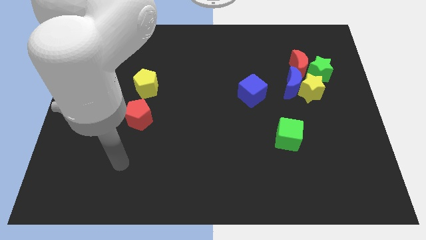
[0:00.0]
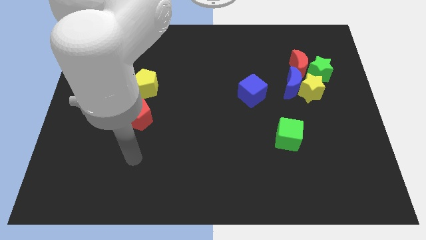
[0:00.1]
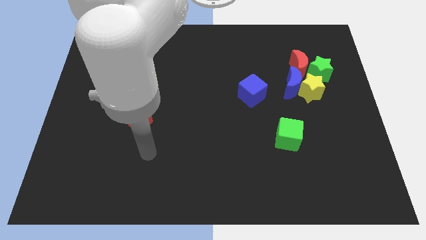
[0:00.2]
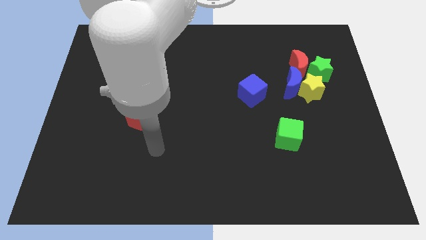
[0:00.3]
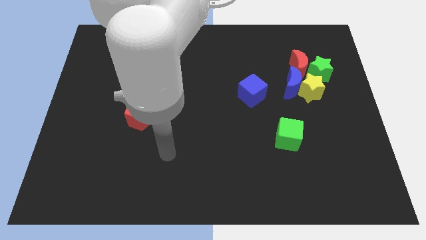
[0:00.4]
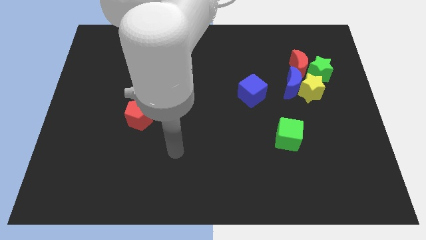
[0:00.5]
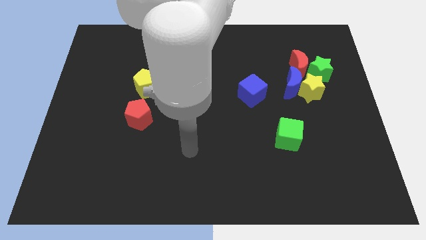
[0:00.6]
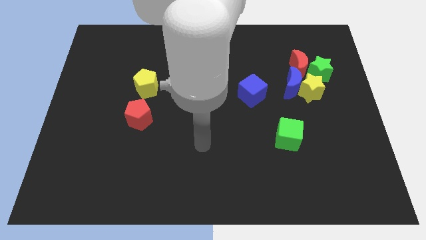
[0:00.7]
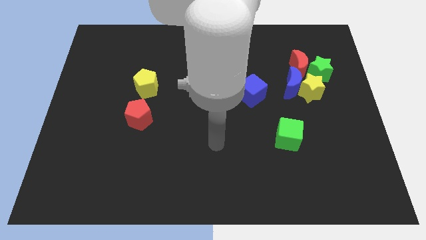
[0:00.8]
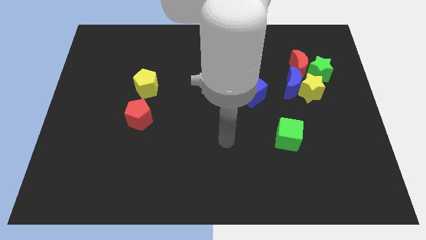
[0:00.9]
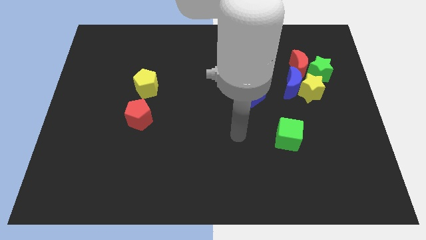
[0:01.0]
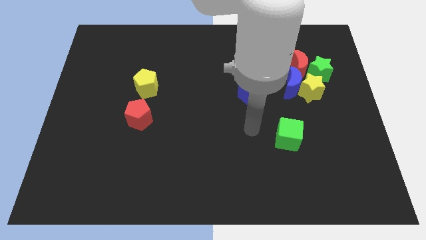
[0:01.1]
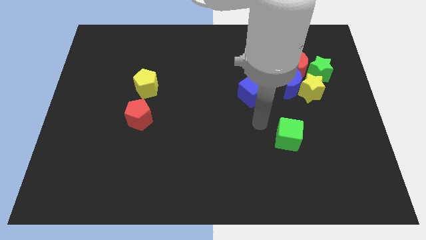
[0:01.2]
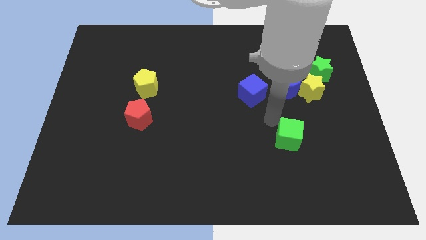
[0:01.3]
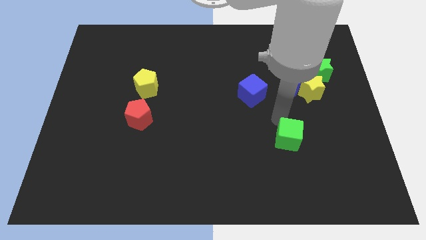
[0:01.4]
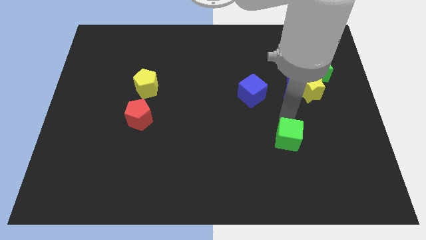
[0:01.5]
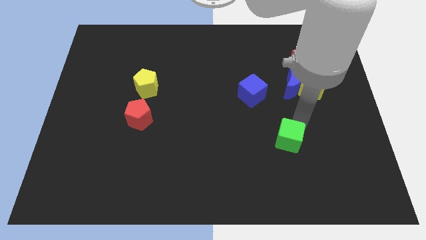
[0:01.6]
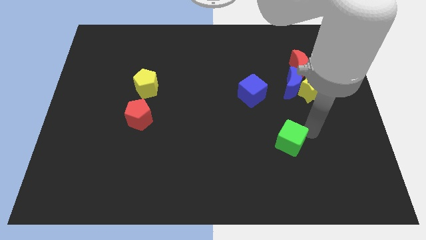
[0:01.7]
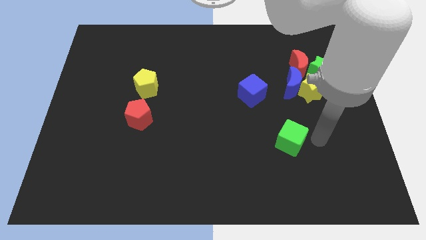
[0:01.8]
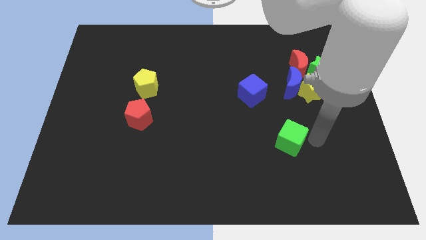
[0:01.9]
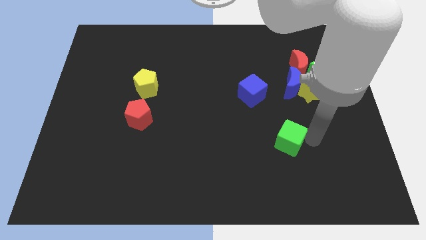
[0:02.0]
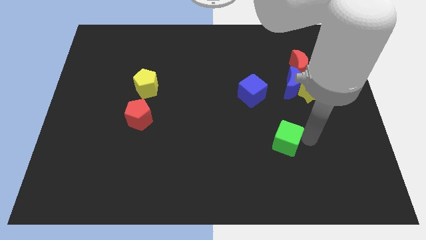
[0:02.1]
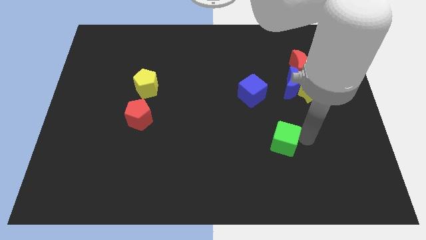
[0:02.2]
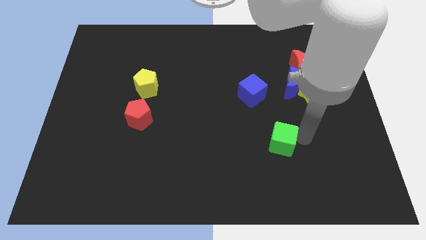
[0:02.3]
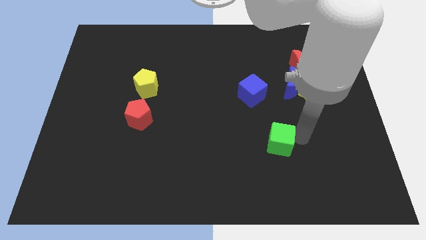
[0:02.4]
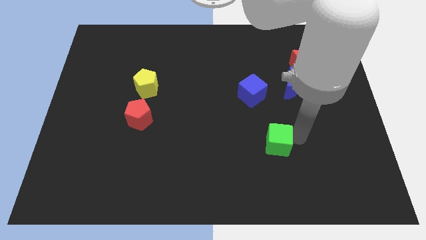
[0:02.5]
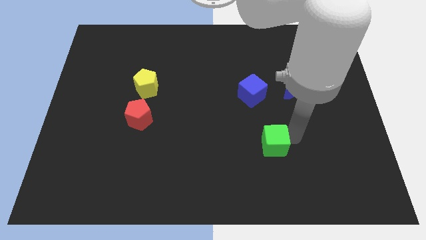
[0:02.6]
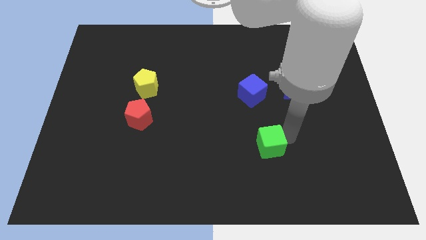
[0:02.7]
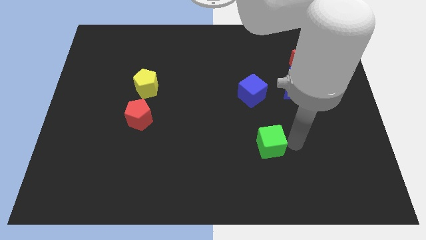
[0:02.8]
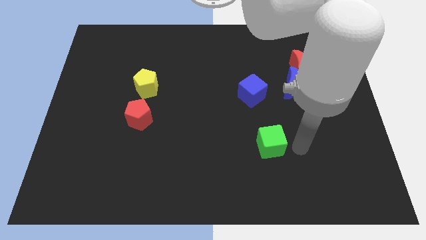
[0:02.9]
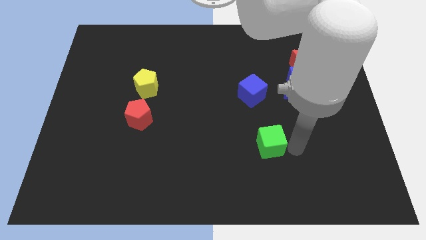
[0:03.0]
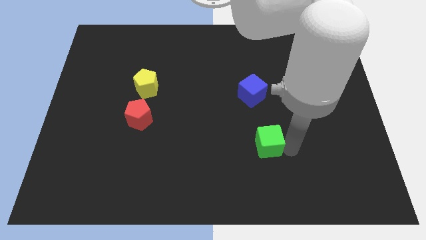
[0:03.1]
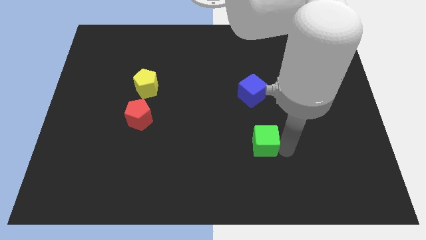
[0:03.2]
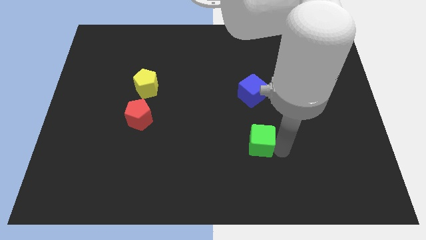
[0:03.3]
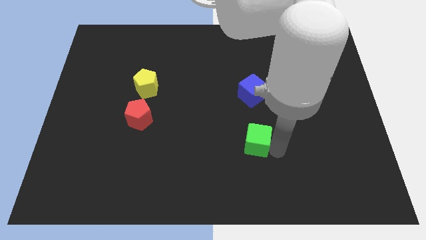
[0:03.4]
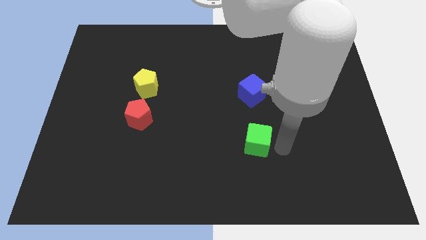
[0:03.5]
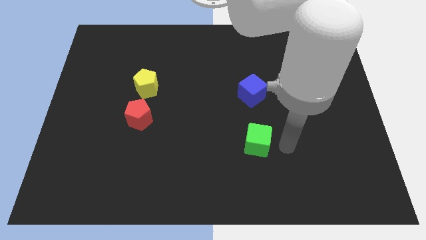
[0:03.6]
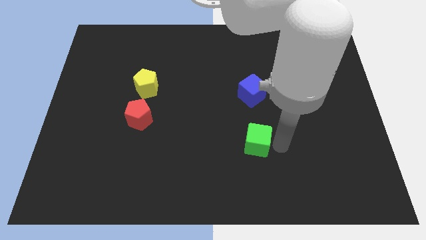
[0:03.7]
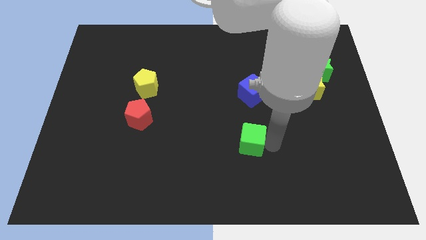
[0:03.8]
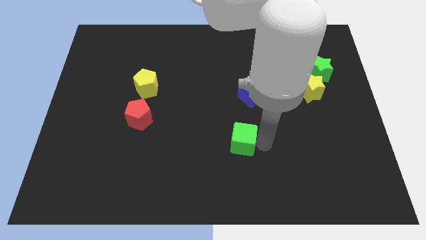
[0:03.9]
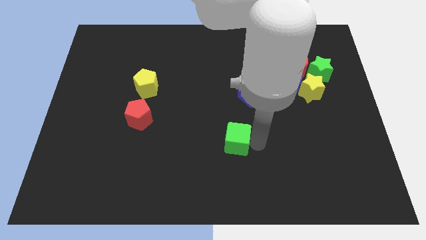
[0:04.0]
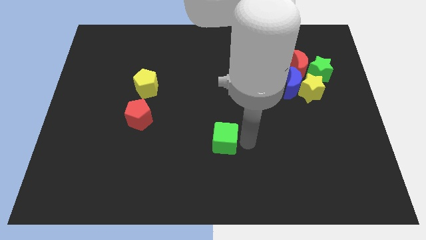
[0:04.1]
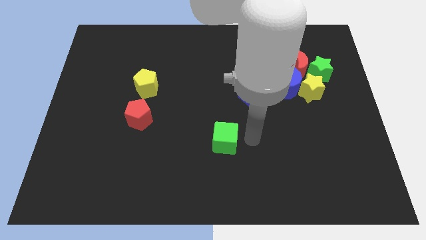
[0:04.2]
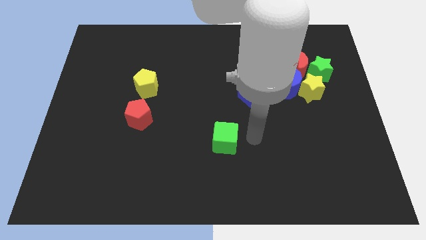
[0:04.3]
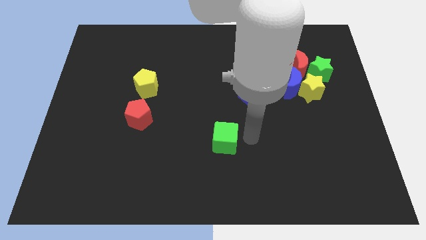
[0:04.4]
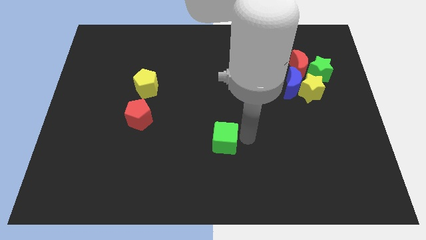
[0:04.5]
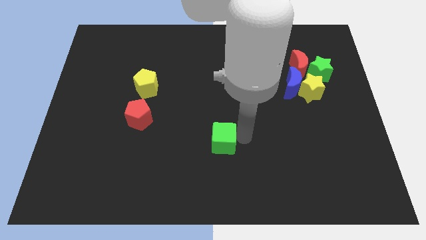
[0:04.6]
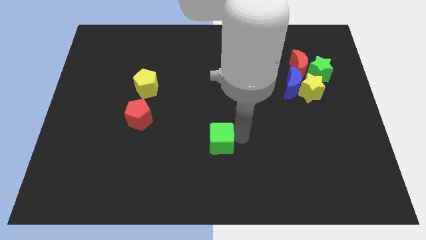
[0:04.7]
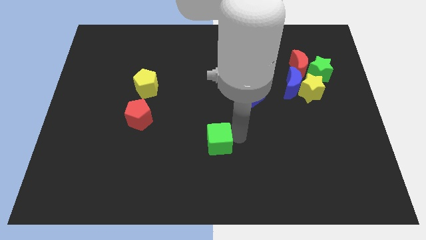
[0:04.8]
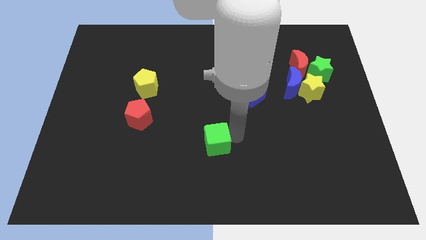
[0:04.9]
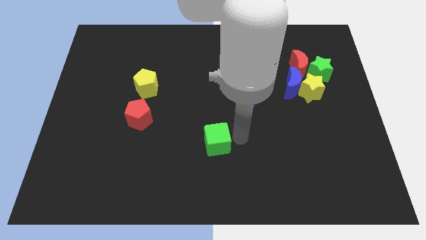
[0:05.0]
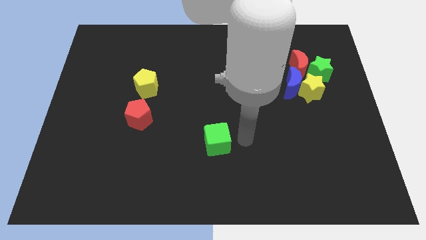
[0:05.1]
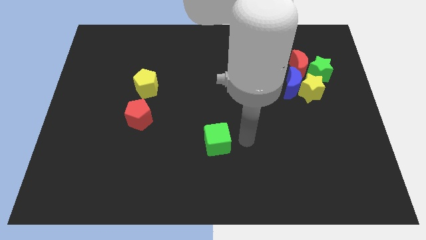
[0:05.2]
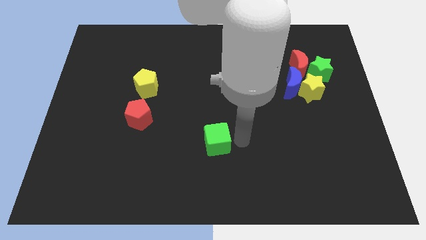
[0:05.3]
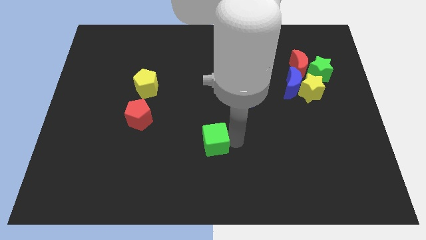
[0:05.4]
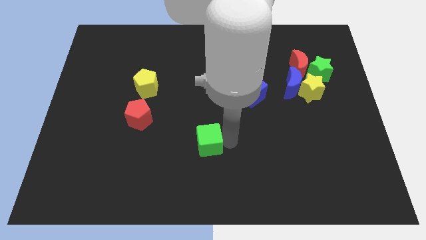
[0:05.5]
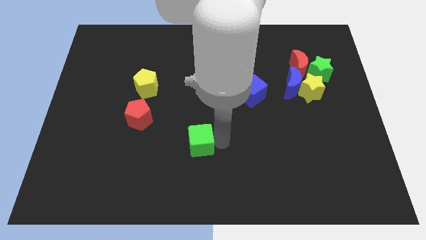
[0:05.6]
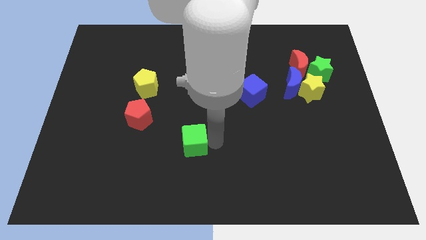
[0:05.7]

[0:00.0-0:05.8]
push the green cube left

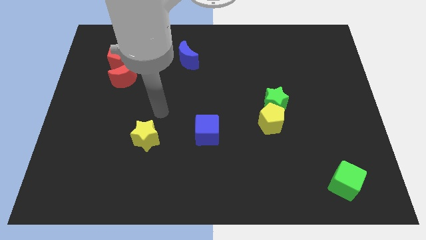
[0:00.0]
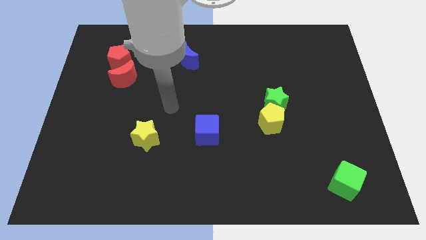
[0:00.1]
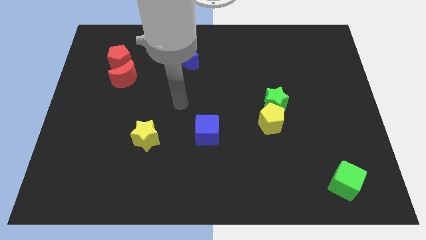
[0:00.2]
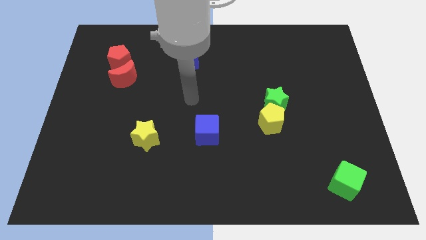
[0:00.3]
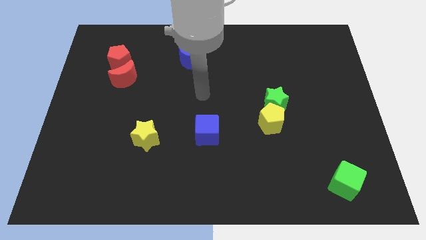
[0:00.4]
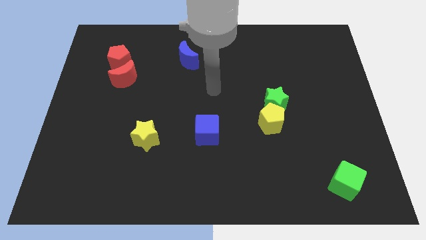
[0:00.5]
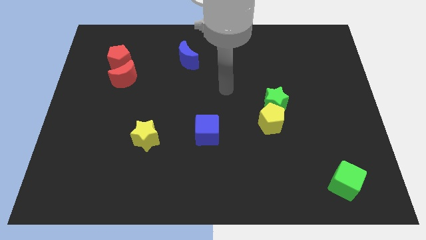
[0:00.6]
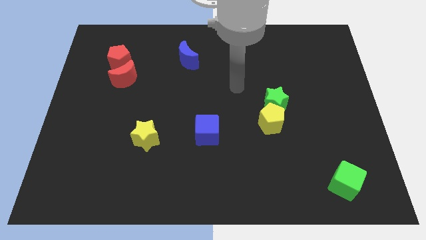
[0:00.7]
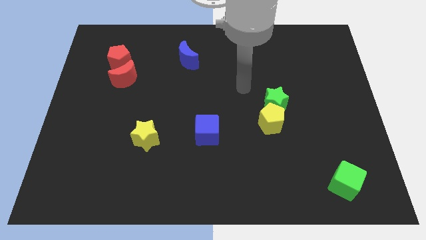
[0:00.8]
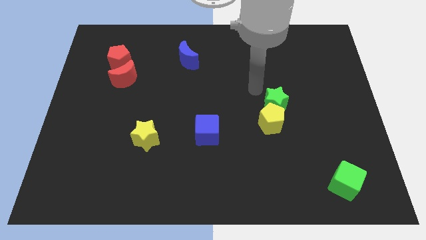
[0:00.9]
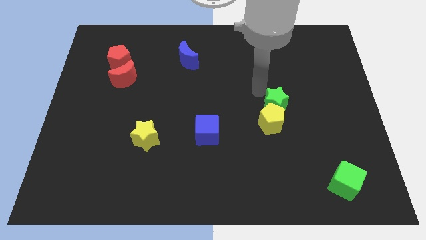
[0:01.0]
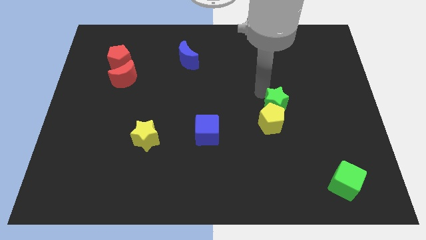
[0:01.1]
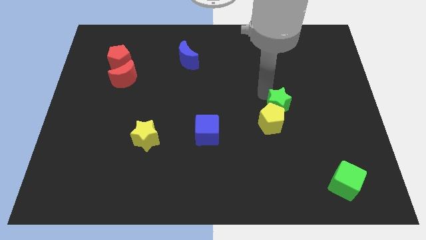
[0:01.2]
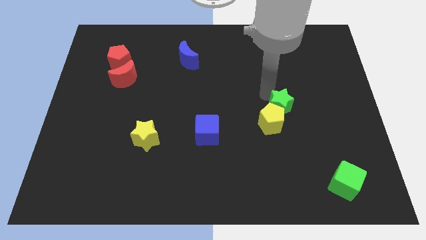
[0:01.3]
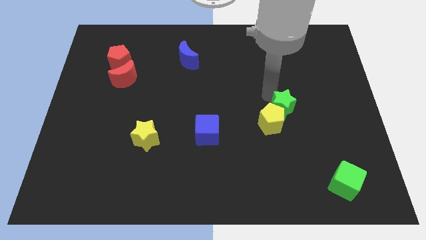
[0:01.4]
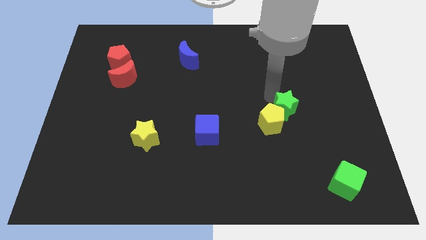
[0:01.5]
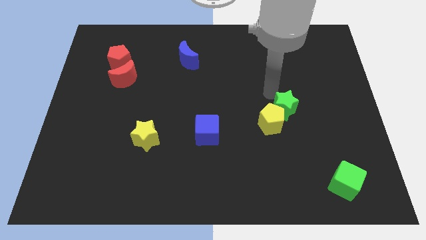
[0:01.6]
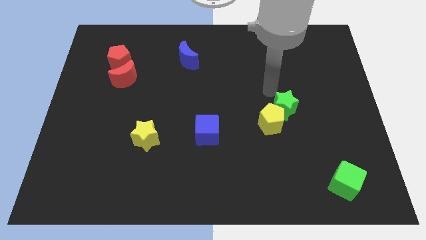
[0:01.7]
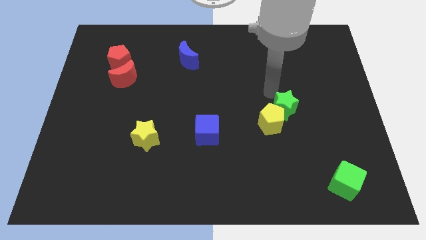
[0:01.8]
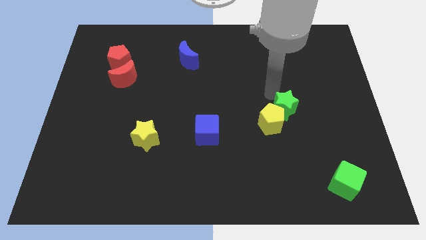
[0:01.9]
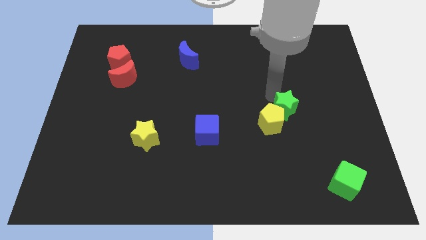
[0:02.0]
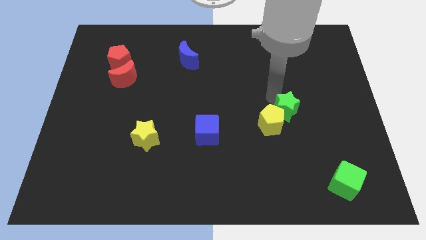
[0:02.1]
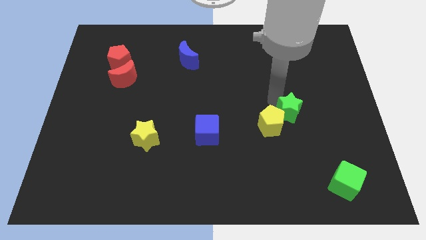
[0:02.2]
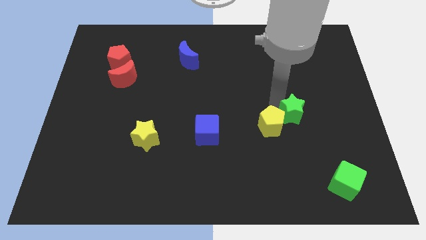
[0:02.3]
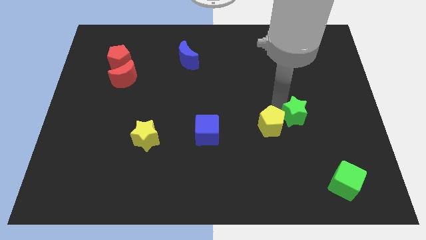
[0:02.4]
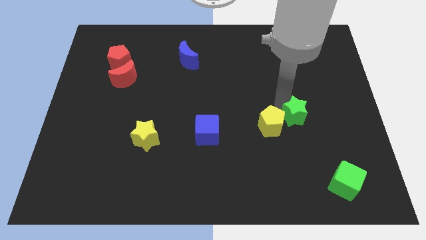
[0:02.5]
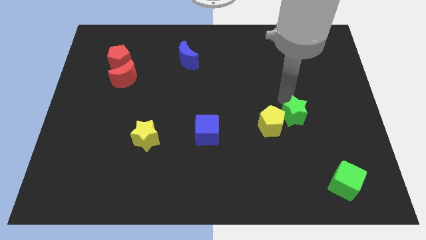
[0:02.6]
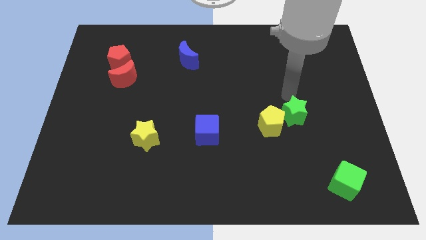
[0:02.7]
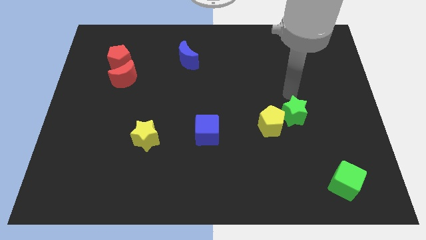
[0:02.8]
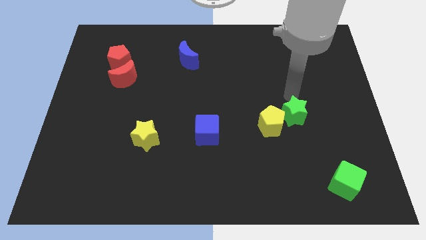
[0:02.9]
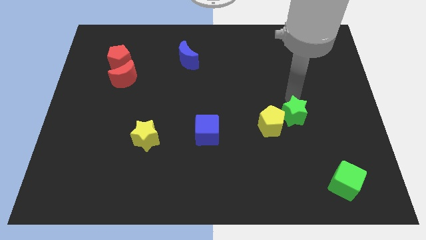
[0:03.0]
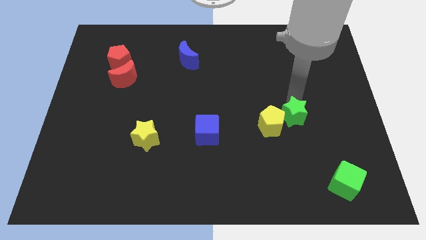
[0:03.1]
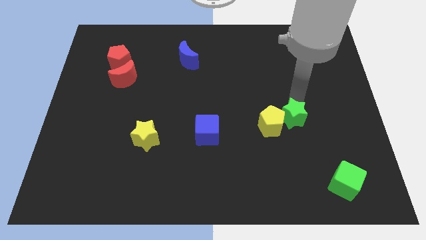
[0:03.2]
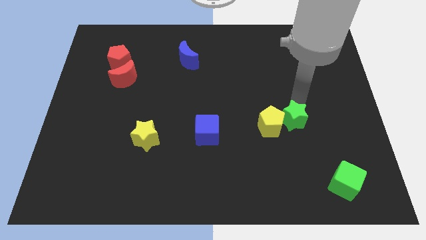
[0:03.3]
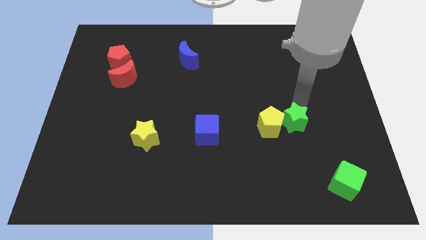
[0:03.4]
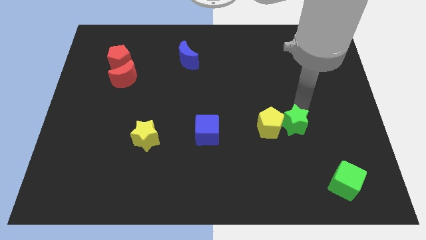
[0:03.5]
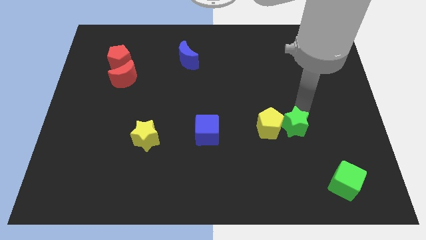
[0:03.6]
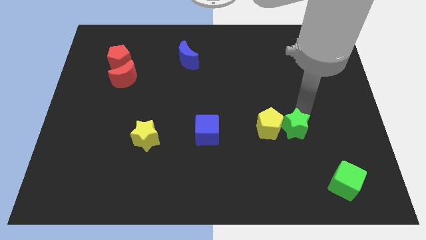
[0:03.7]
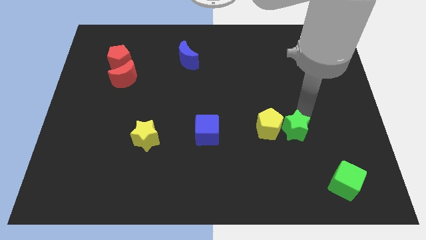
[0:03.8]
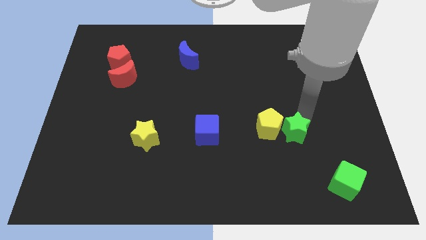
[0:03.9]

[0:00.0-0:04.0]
move the green star slightly down
